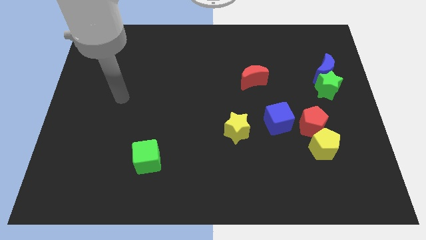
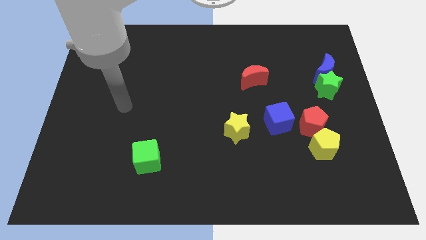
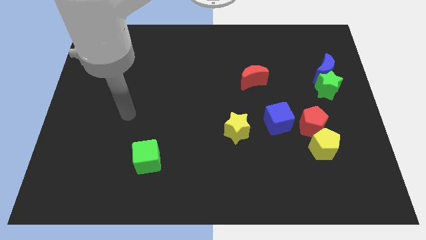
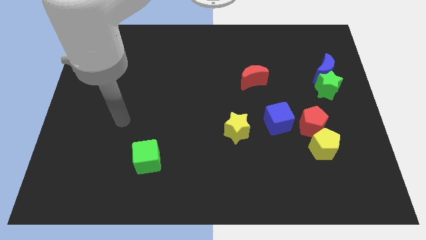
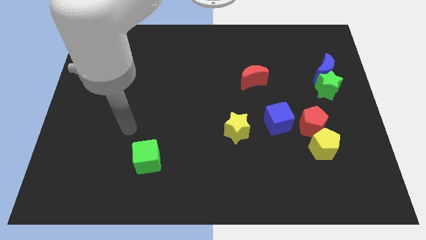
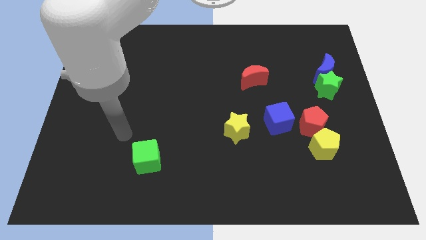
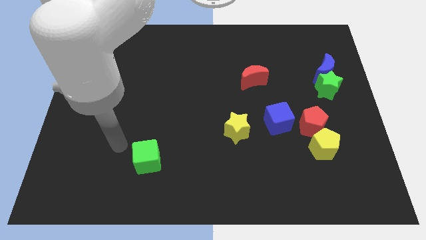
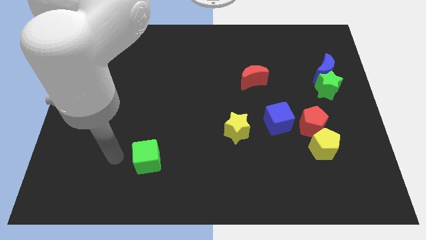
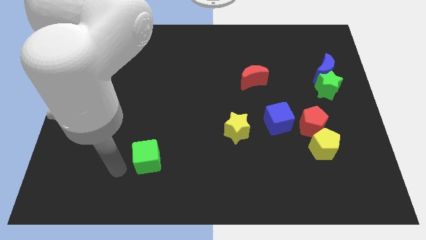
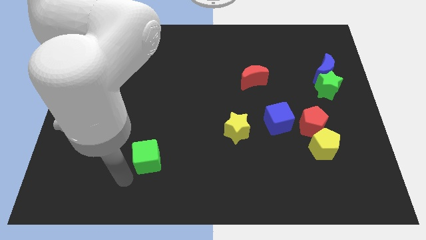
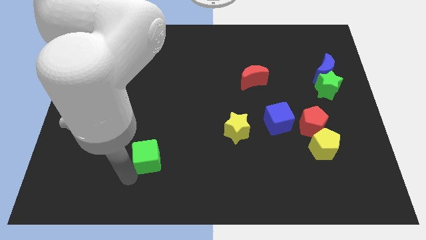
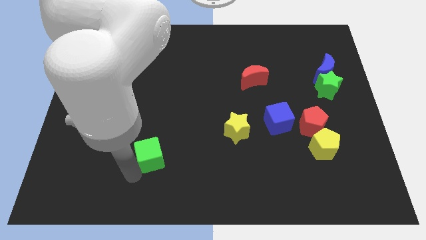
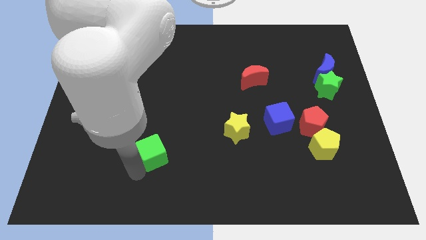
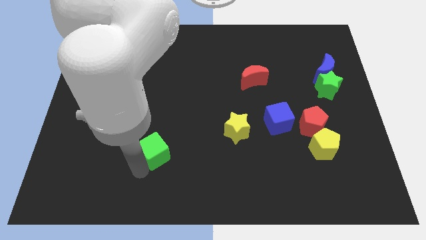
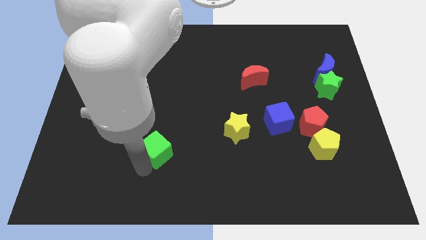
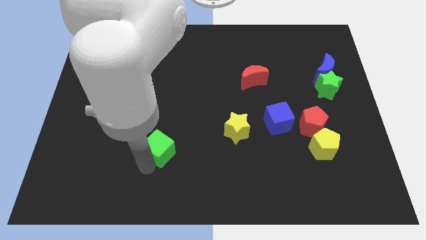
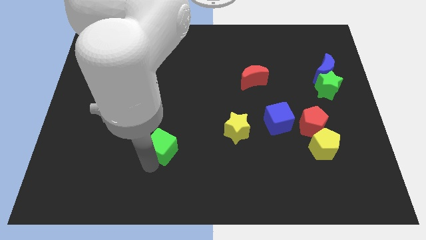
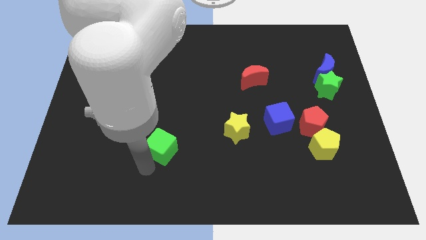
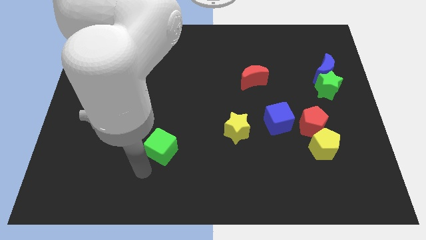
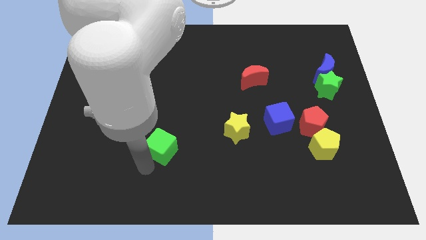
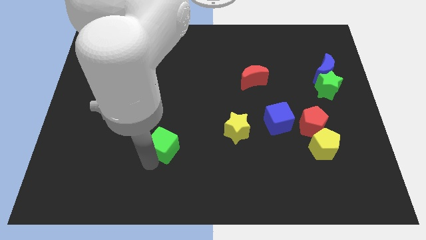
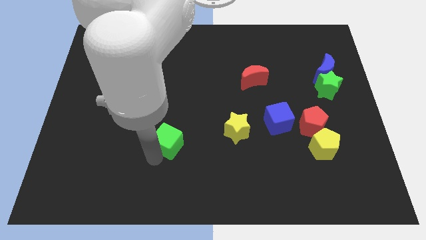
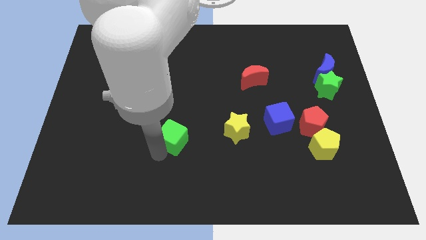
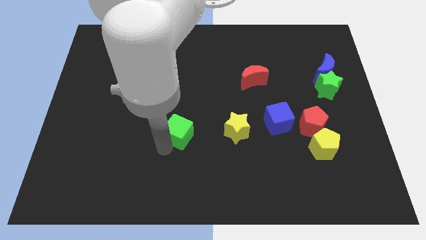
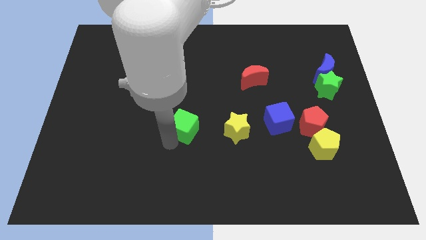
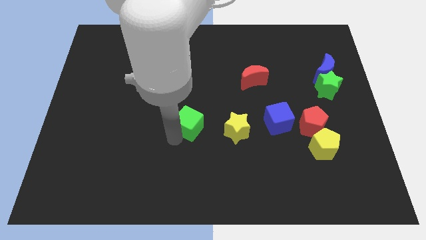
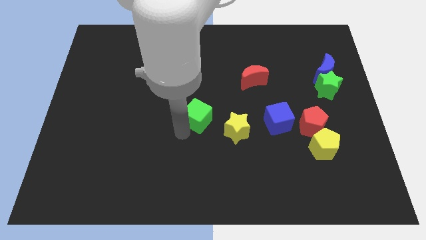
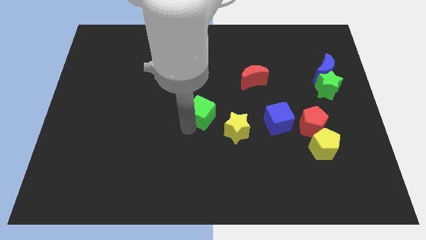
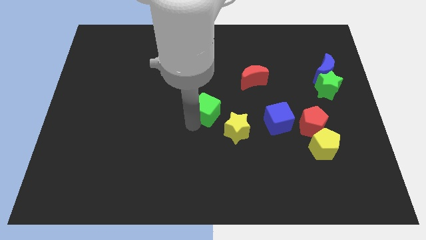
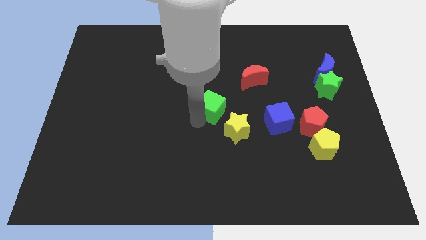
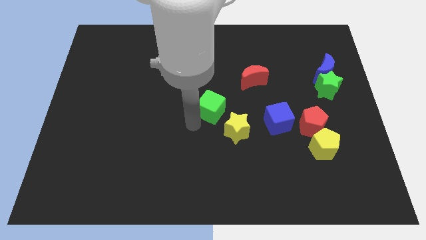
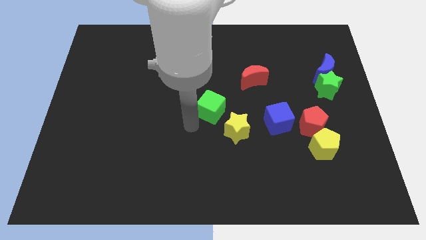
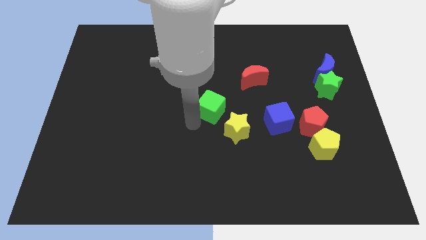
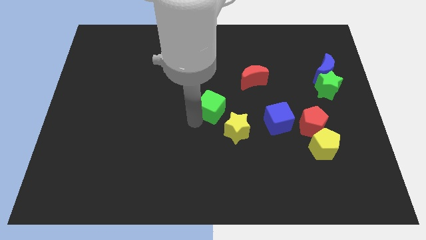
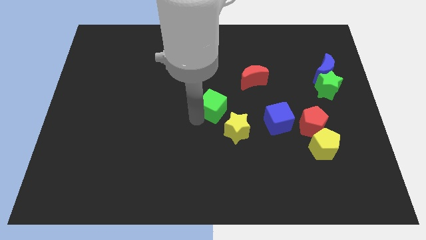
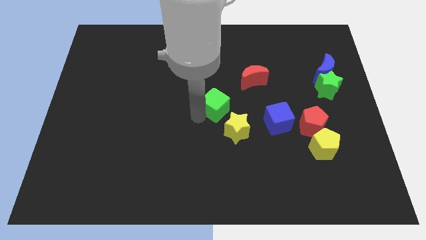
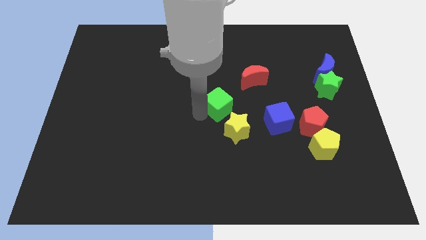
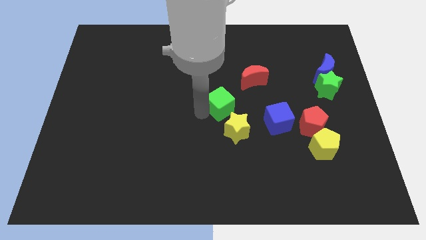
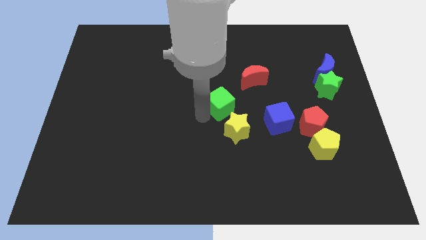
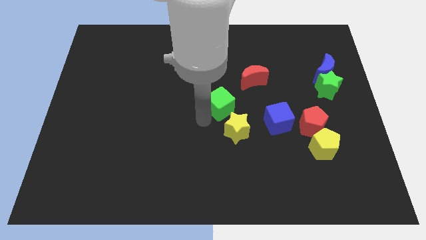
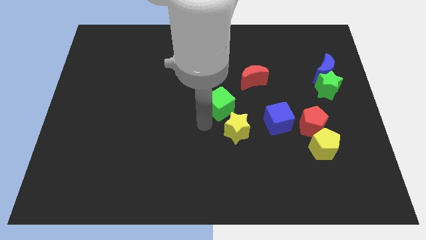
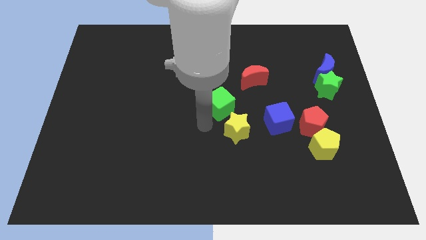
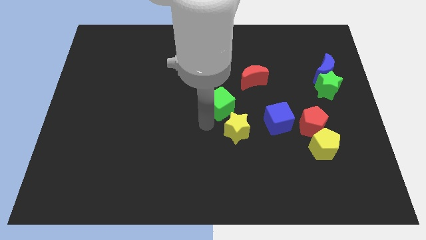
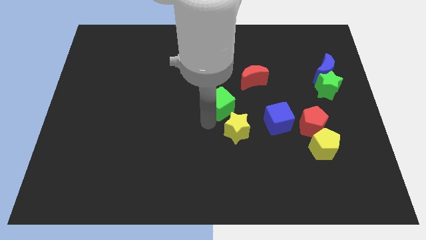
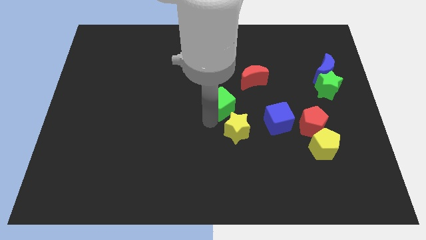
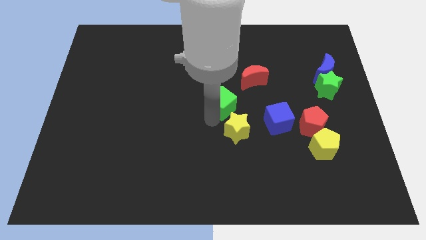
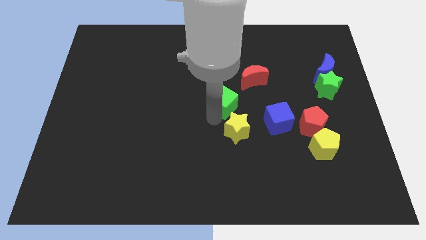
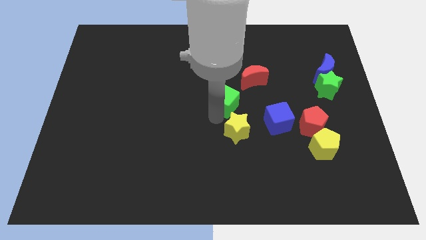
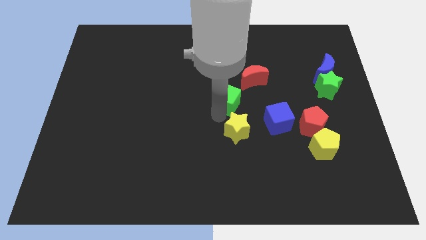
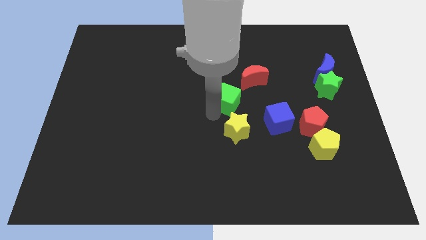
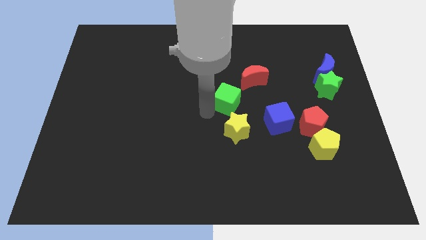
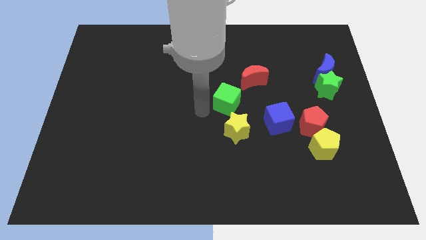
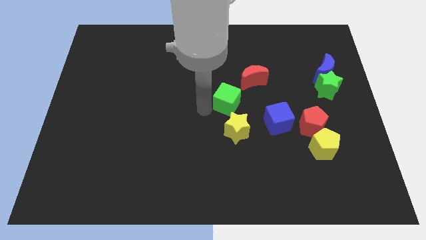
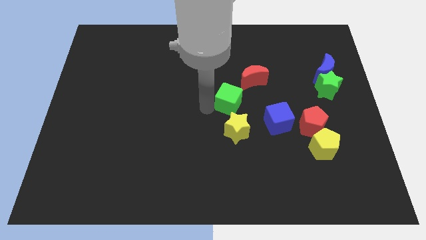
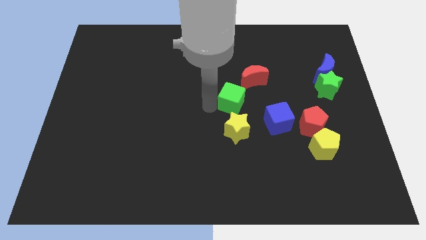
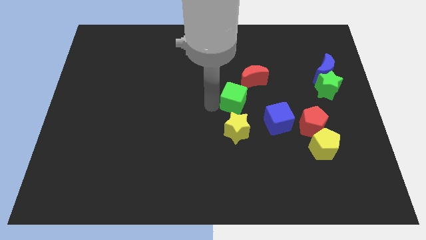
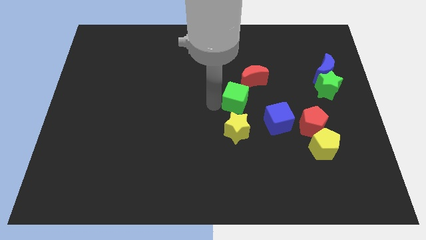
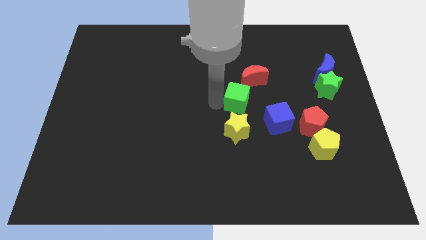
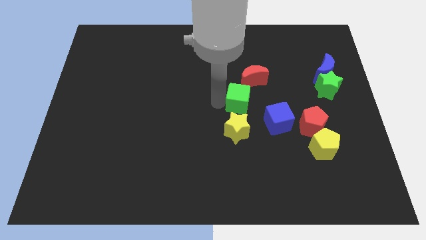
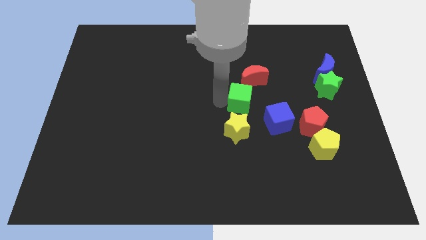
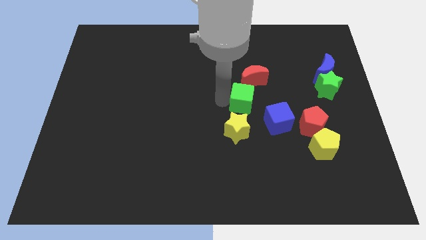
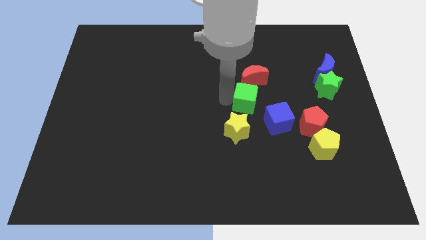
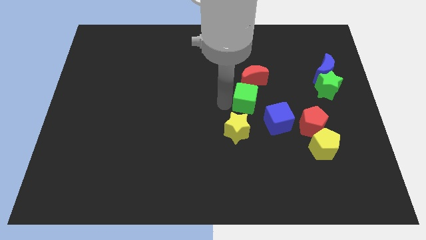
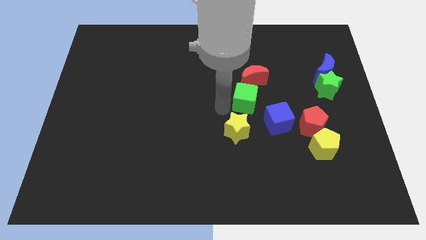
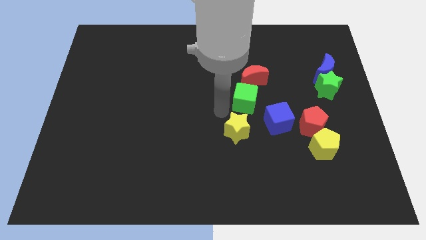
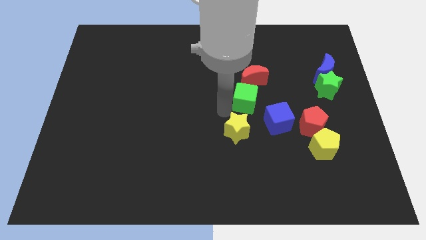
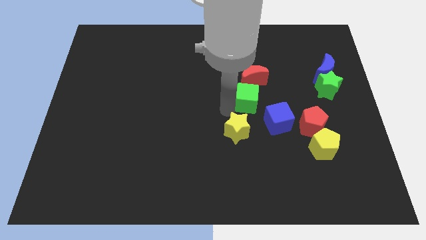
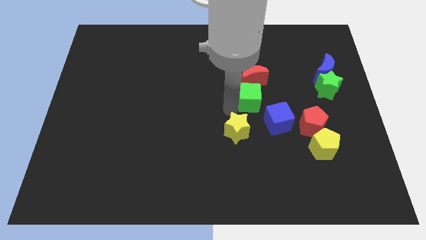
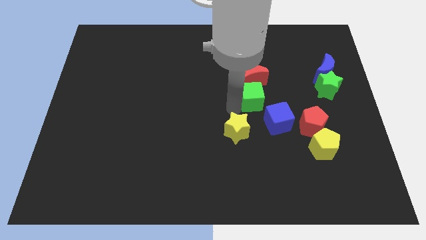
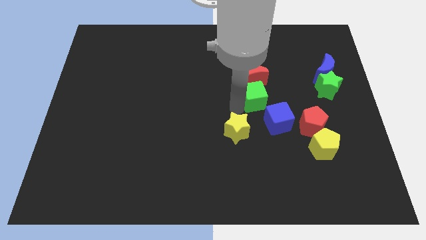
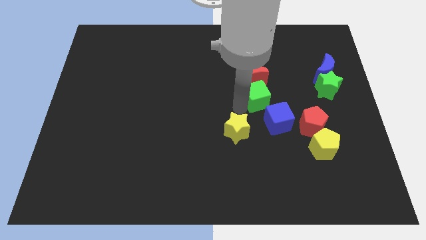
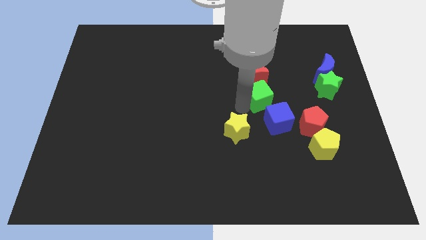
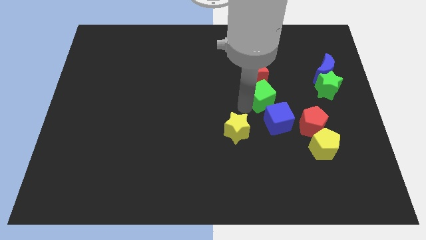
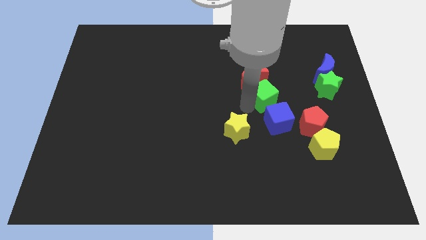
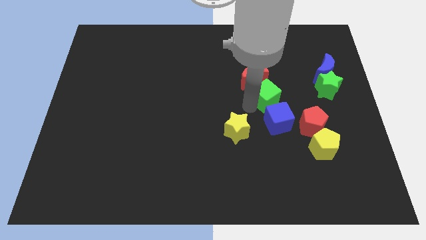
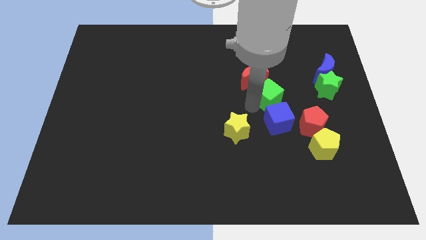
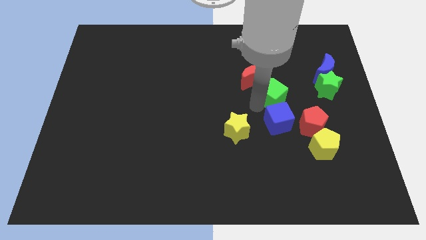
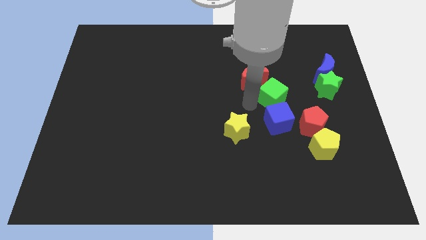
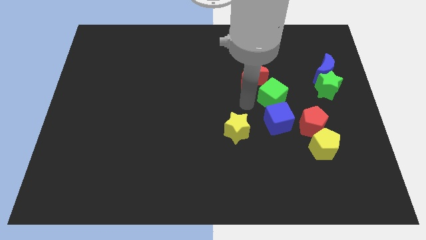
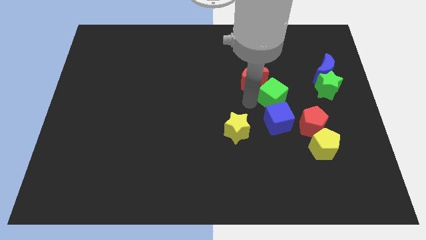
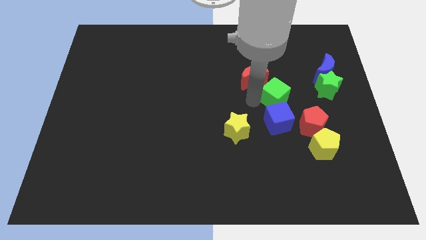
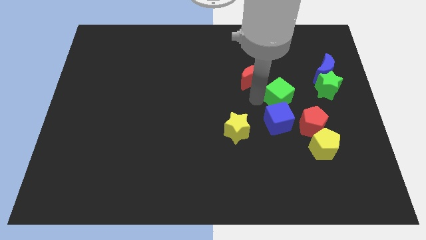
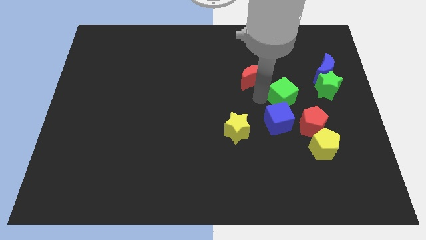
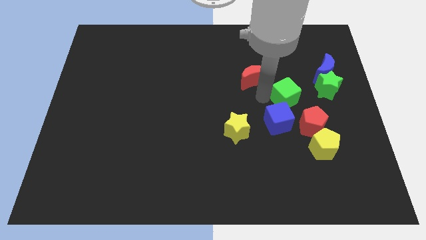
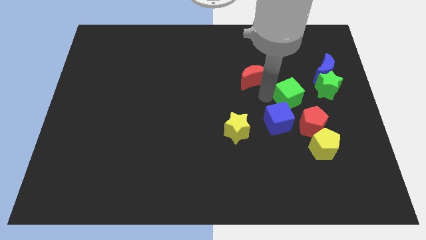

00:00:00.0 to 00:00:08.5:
slide the green cube to the bottom left side of the blue moon
